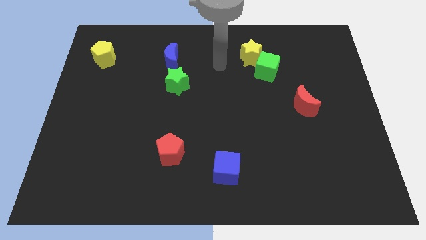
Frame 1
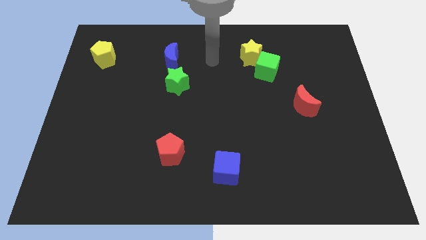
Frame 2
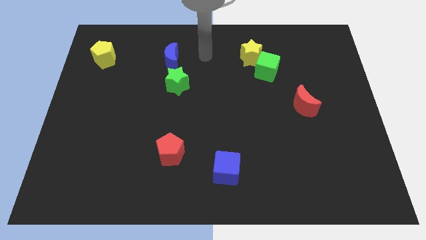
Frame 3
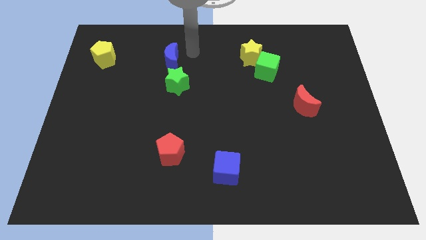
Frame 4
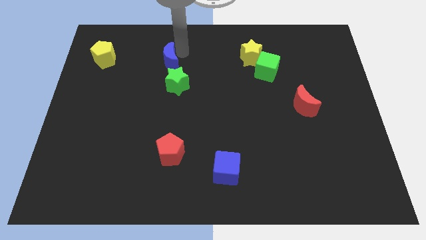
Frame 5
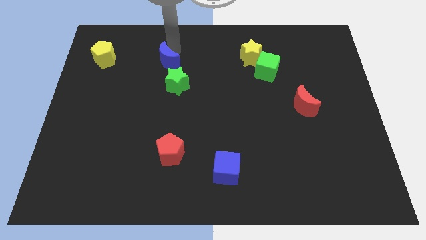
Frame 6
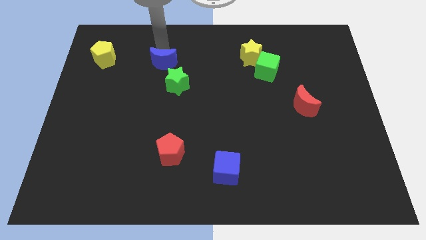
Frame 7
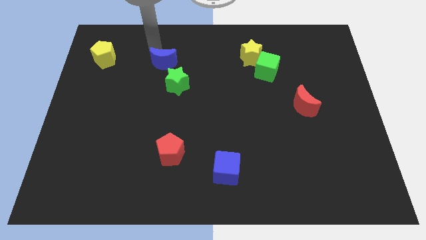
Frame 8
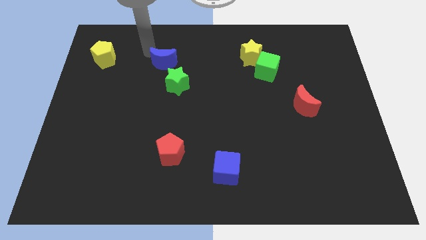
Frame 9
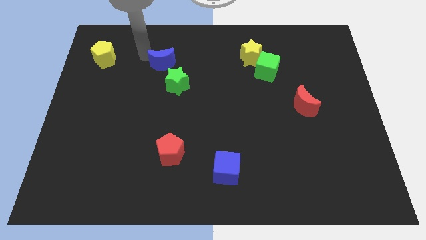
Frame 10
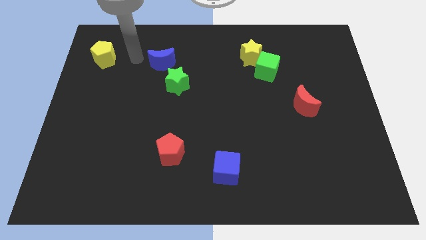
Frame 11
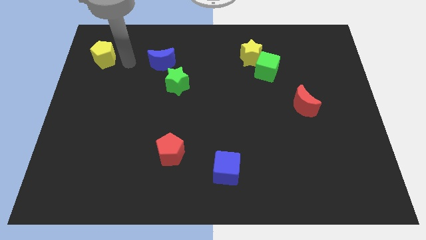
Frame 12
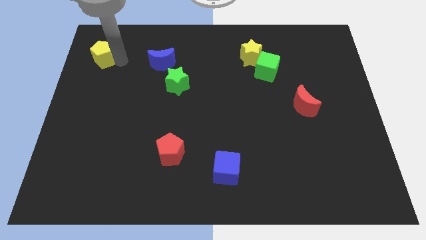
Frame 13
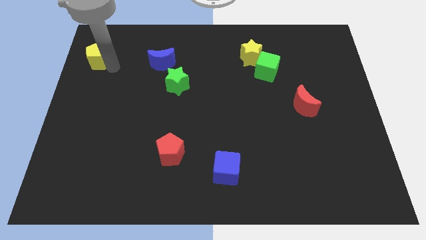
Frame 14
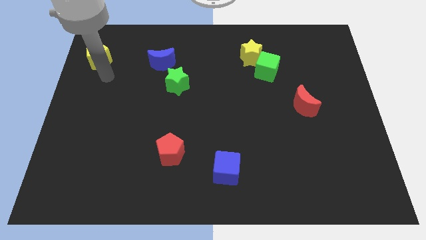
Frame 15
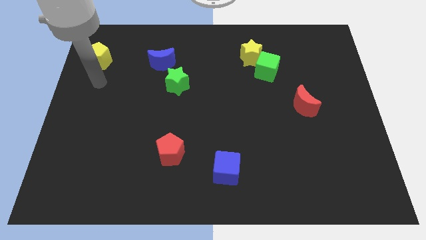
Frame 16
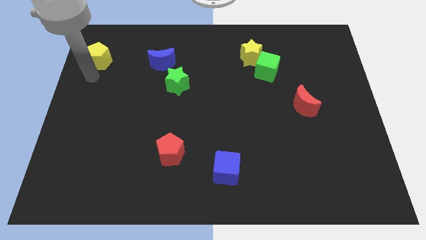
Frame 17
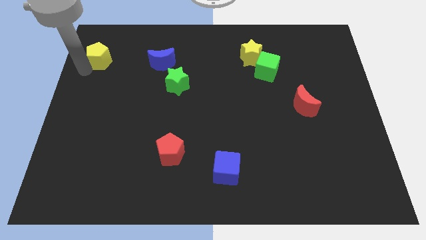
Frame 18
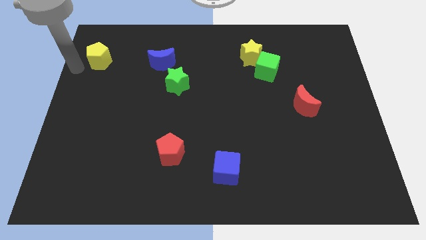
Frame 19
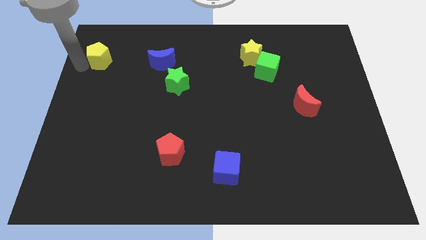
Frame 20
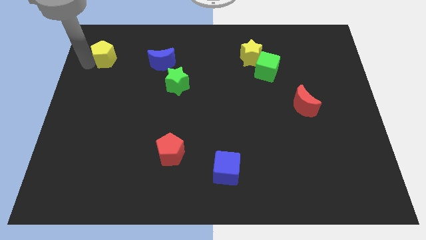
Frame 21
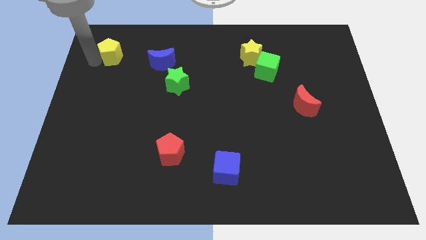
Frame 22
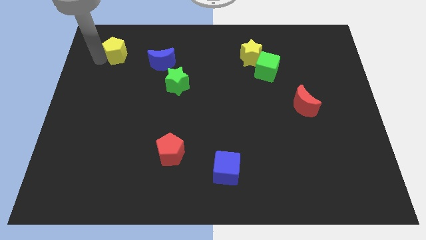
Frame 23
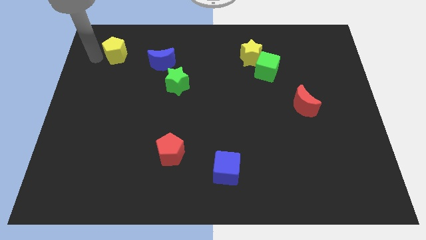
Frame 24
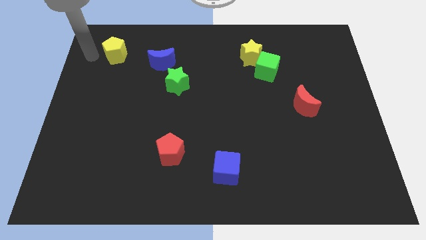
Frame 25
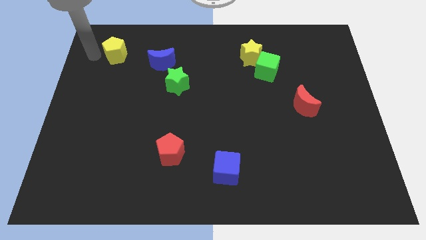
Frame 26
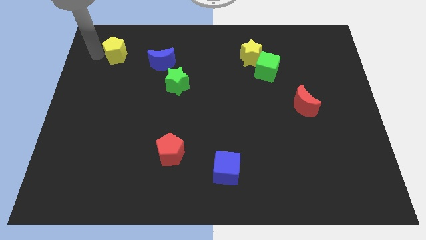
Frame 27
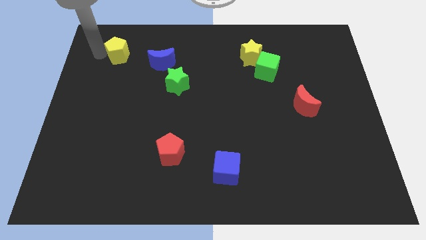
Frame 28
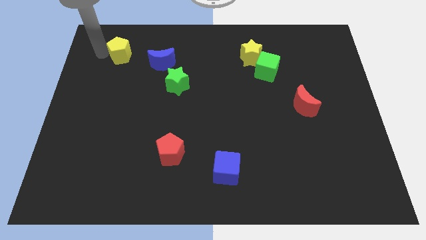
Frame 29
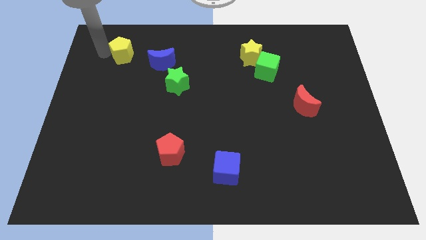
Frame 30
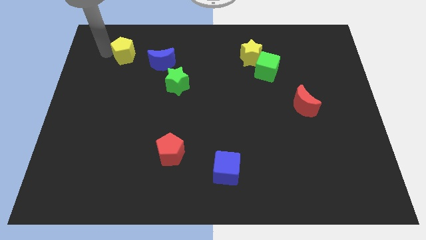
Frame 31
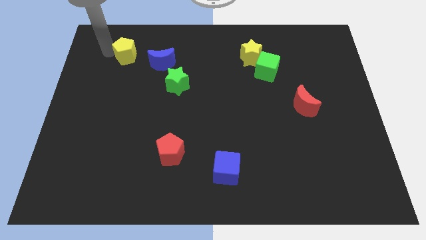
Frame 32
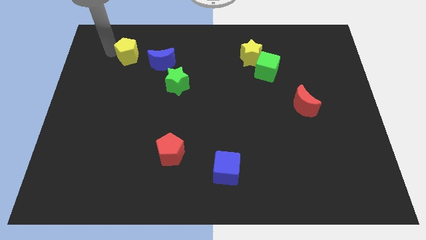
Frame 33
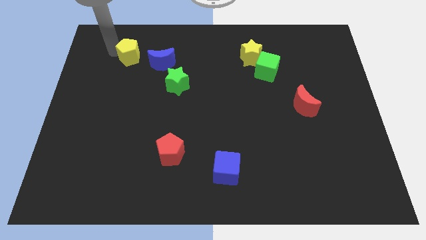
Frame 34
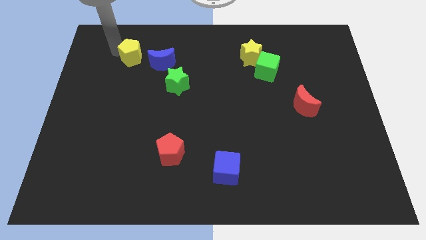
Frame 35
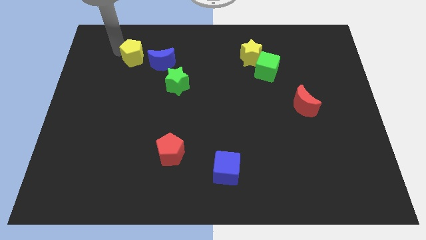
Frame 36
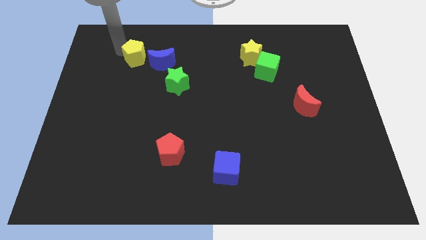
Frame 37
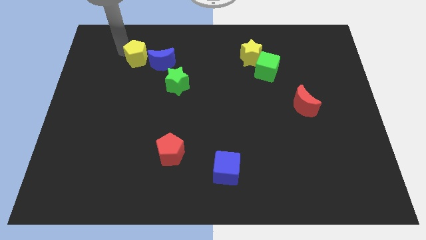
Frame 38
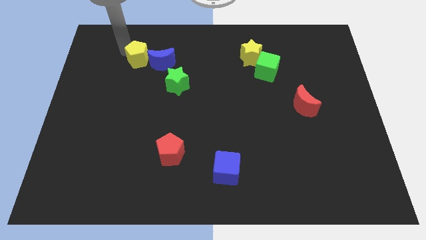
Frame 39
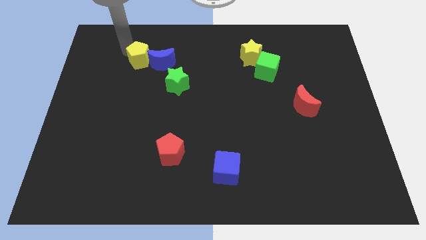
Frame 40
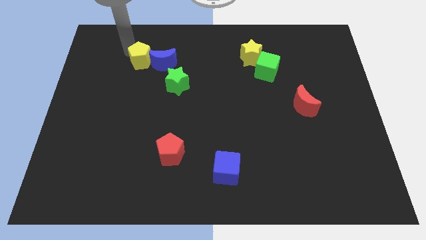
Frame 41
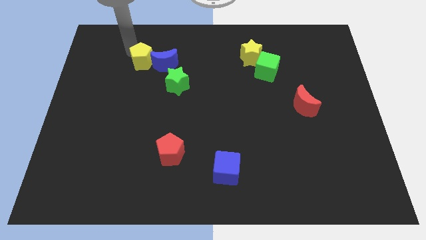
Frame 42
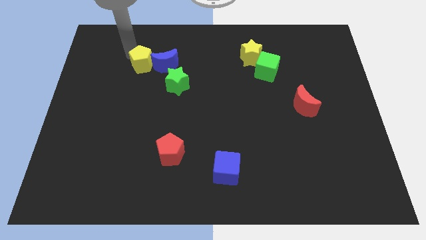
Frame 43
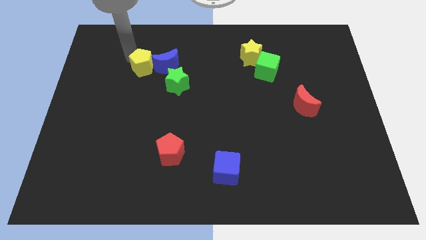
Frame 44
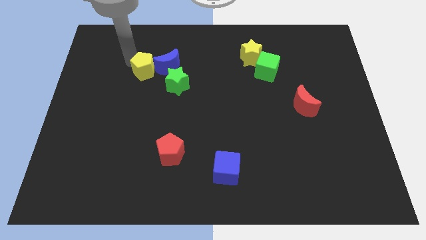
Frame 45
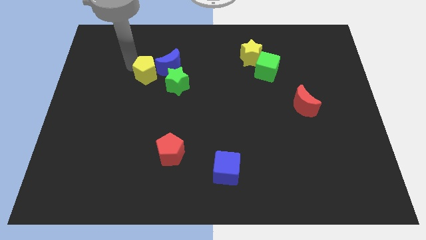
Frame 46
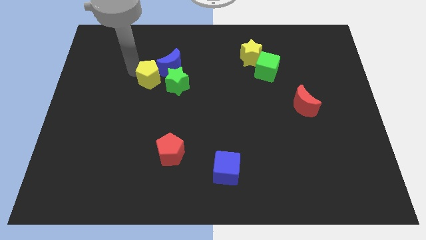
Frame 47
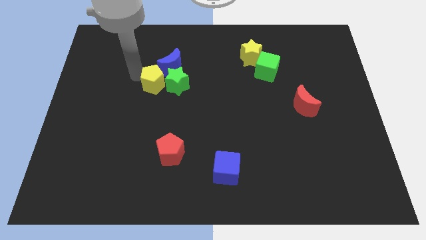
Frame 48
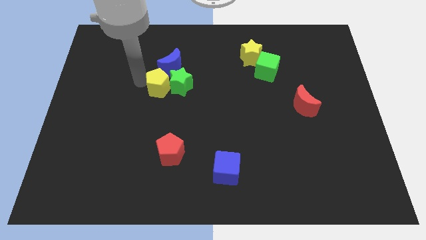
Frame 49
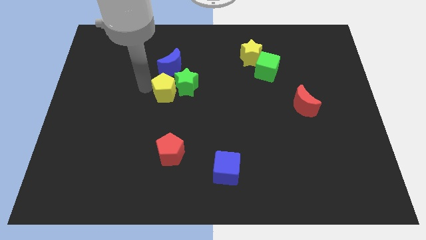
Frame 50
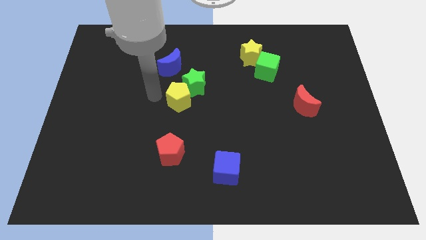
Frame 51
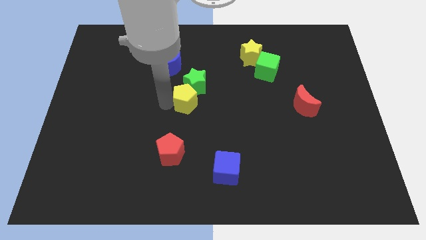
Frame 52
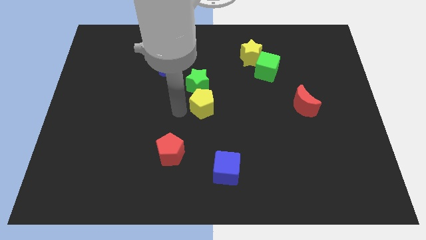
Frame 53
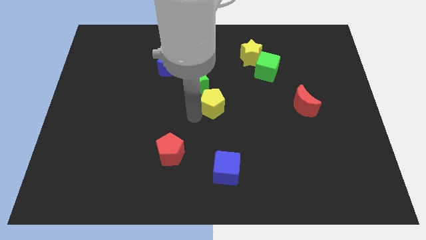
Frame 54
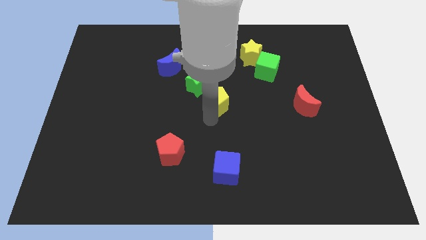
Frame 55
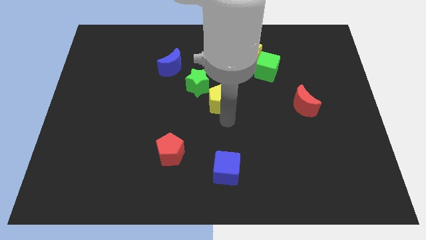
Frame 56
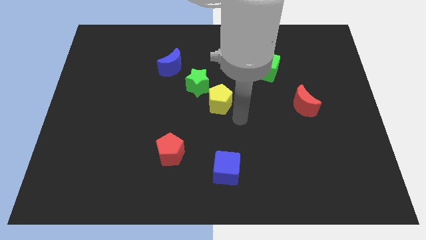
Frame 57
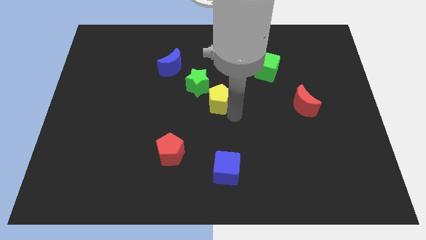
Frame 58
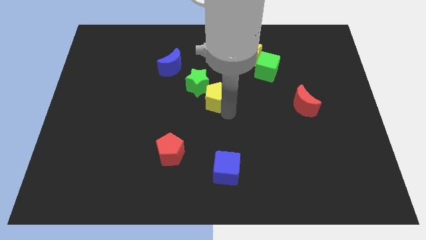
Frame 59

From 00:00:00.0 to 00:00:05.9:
push the yellow pentagon just right of the green star

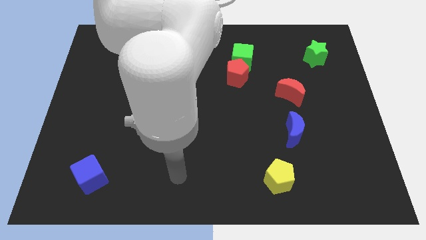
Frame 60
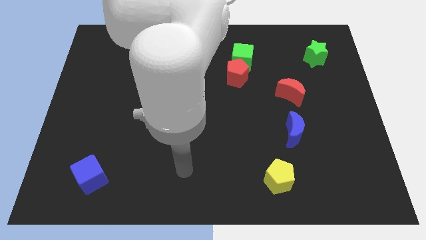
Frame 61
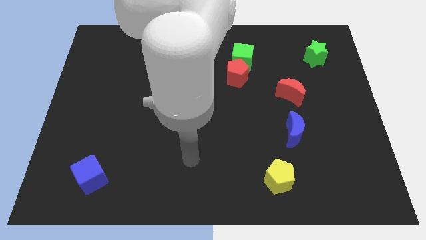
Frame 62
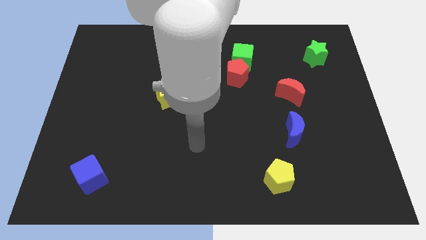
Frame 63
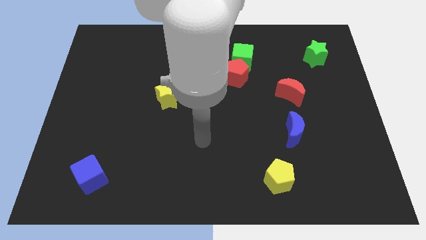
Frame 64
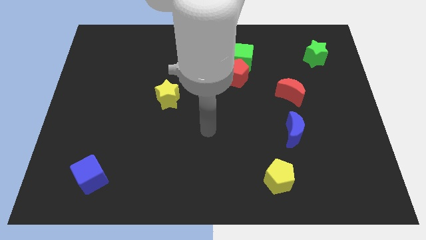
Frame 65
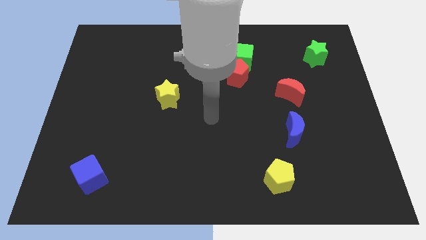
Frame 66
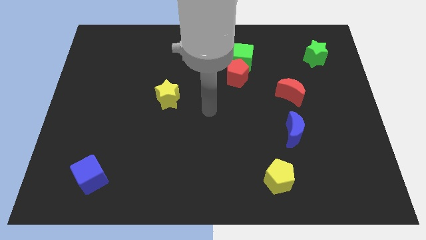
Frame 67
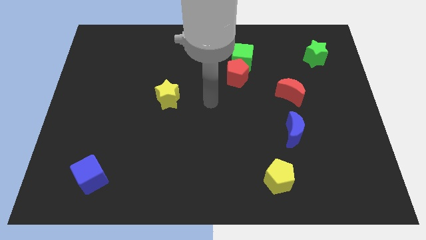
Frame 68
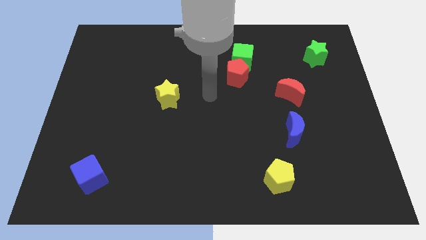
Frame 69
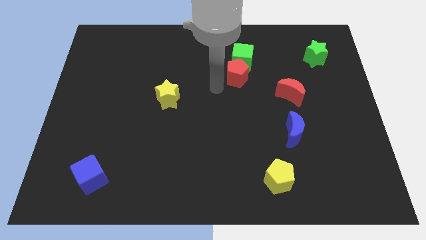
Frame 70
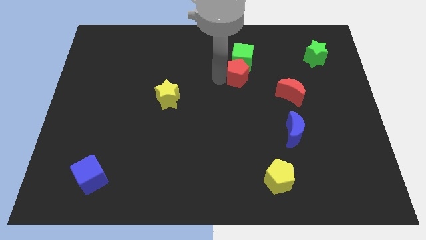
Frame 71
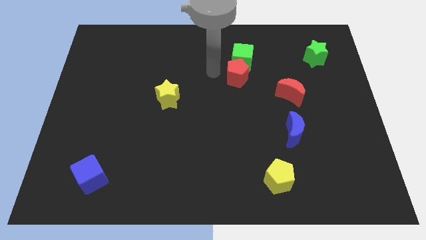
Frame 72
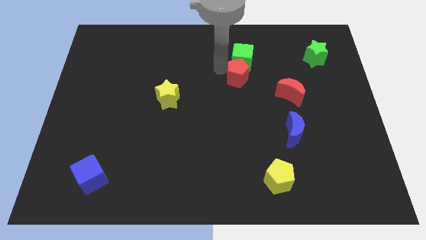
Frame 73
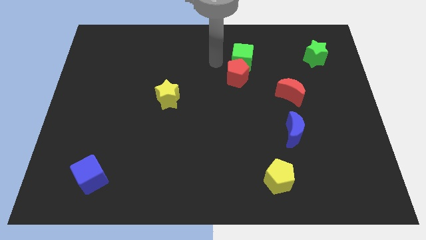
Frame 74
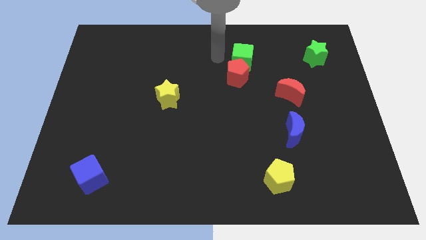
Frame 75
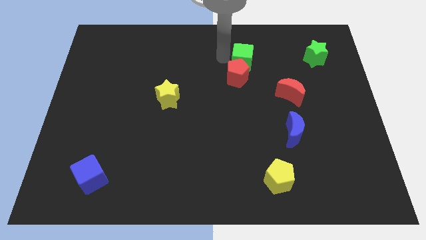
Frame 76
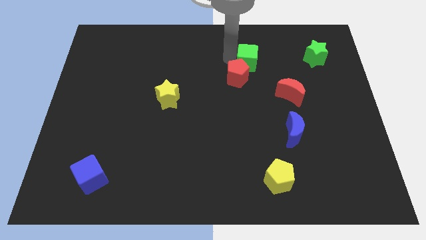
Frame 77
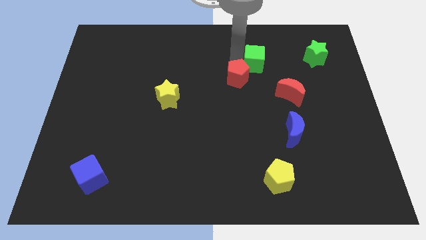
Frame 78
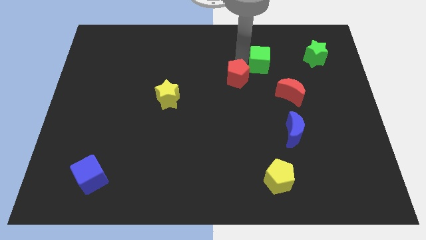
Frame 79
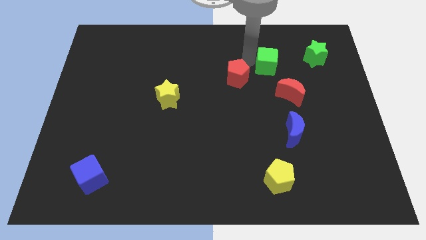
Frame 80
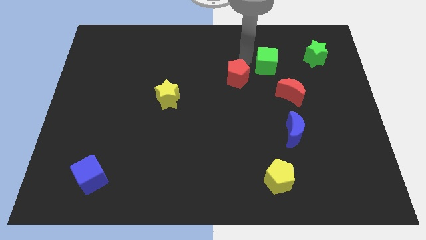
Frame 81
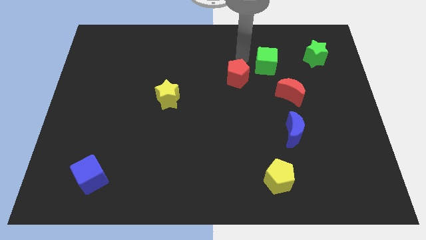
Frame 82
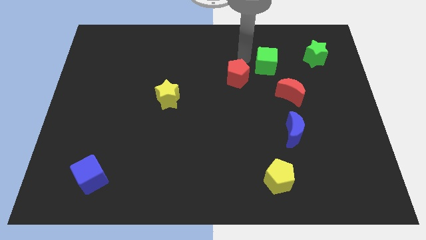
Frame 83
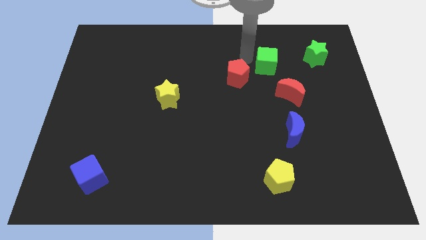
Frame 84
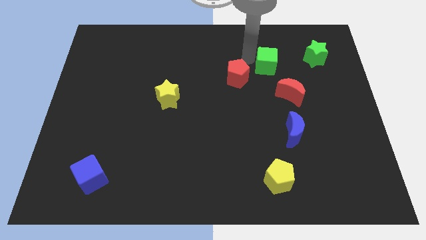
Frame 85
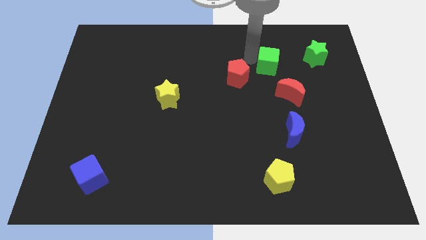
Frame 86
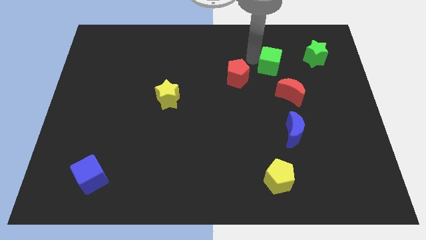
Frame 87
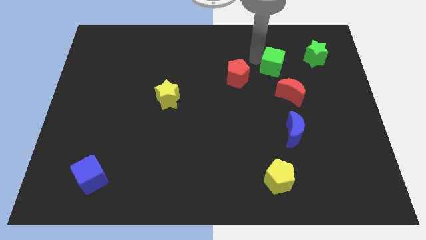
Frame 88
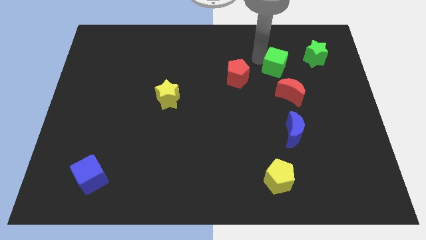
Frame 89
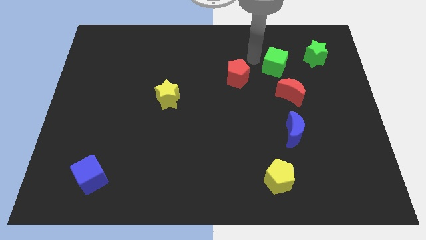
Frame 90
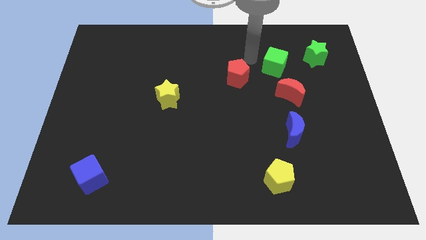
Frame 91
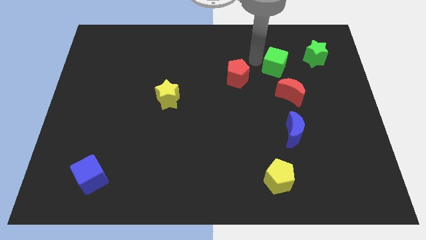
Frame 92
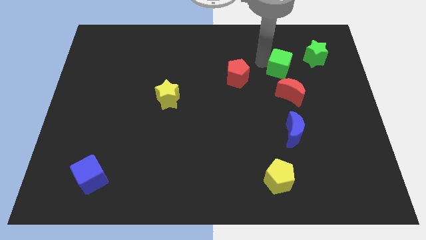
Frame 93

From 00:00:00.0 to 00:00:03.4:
move the green cube diagonally down and to the left of the green star
